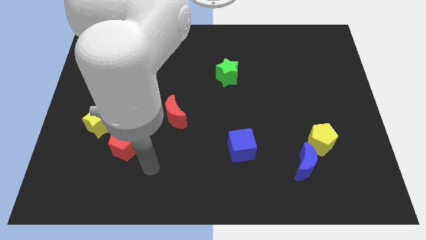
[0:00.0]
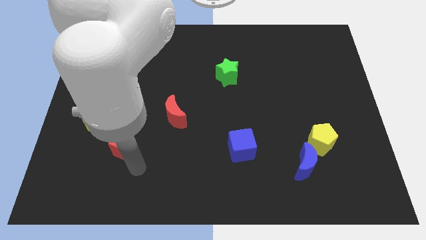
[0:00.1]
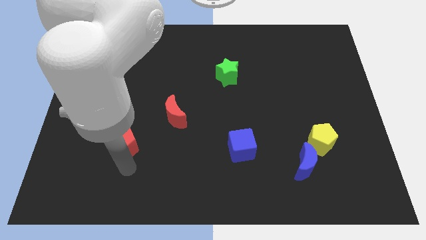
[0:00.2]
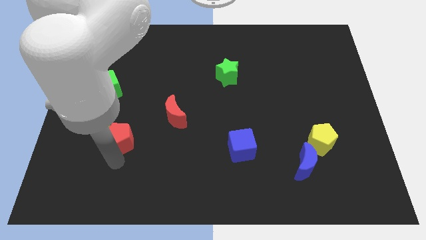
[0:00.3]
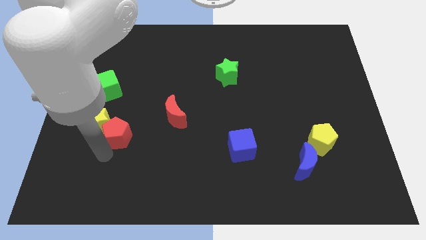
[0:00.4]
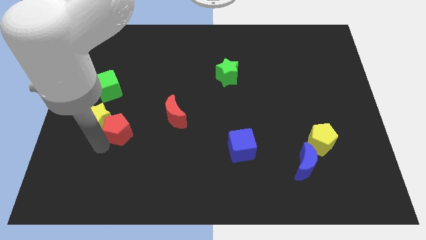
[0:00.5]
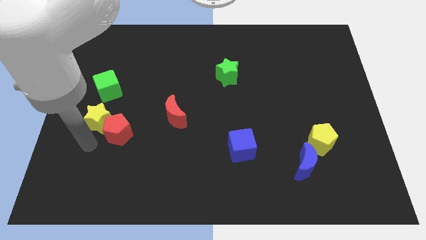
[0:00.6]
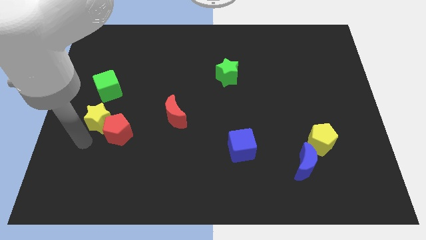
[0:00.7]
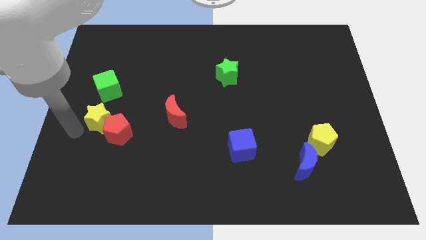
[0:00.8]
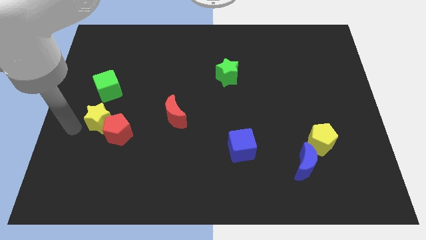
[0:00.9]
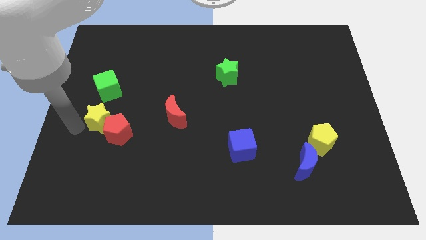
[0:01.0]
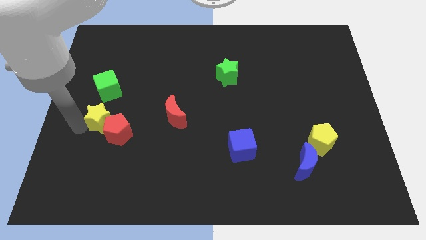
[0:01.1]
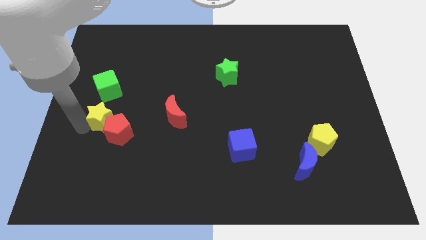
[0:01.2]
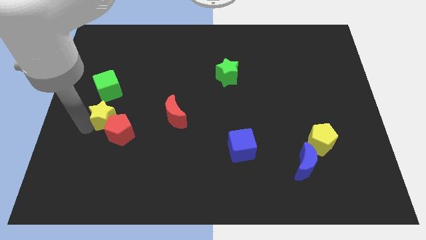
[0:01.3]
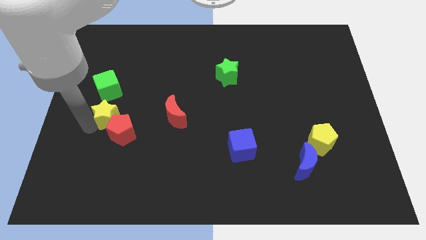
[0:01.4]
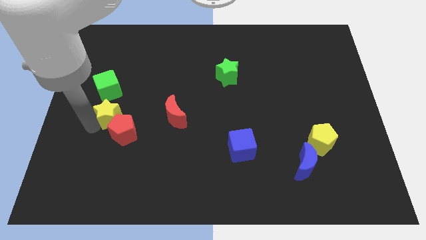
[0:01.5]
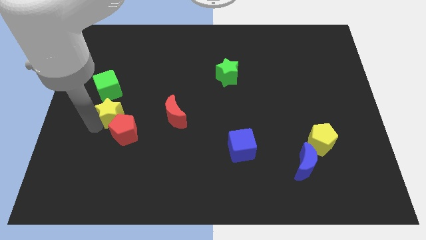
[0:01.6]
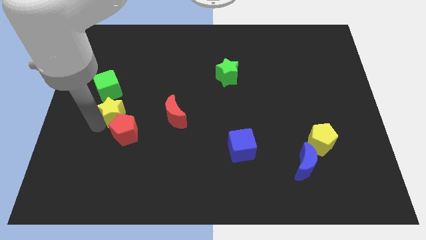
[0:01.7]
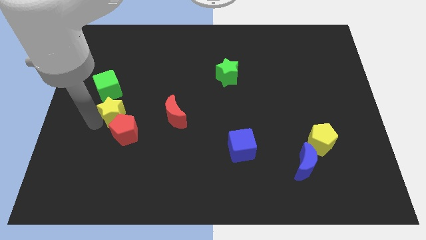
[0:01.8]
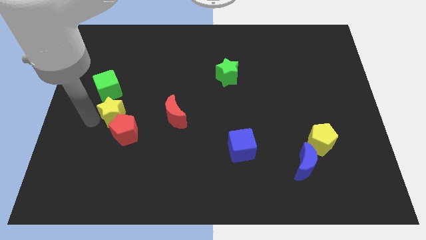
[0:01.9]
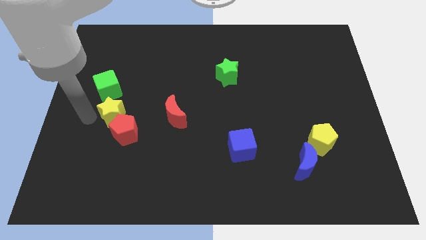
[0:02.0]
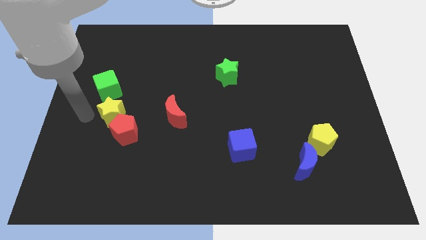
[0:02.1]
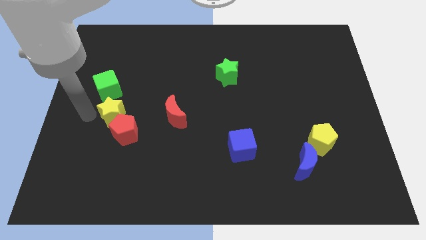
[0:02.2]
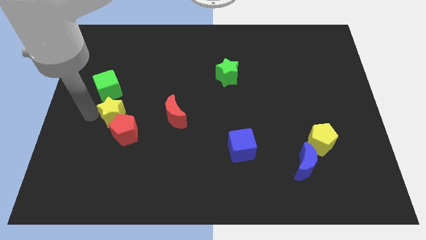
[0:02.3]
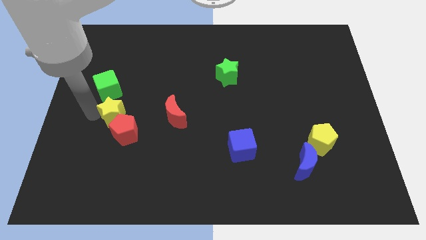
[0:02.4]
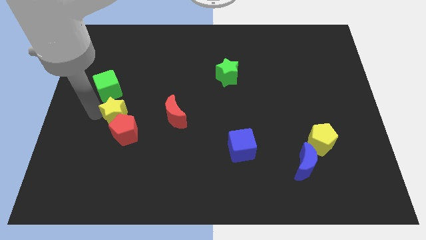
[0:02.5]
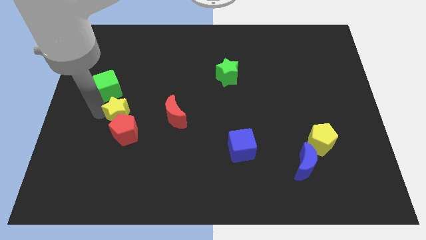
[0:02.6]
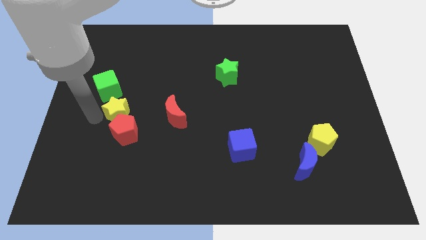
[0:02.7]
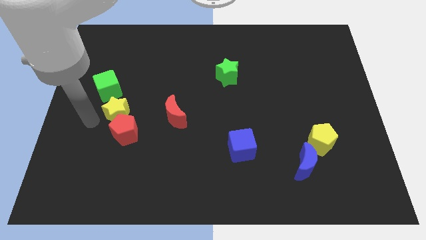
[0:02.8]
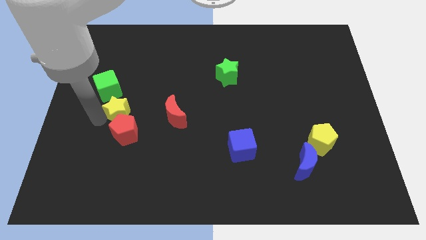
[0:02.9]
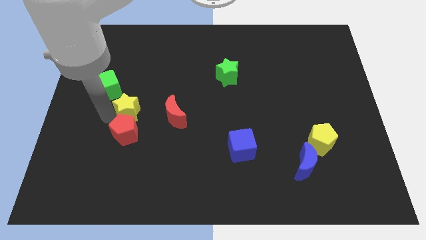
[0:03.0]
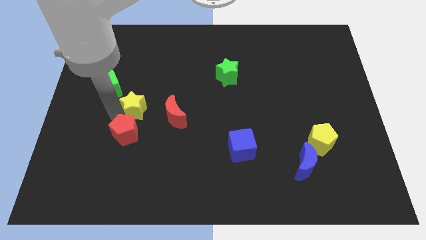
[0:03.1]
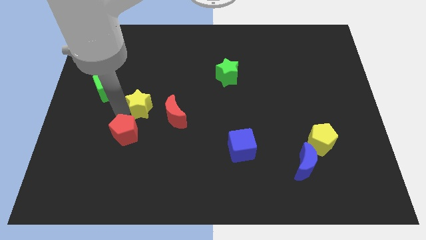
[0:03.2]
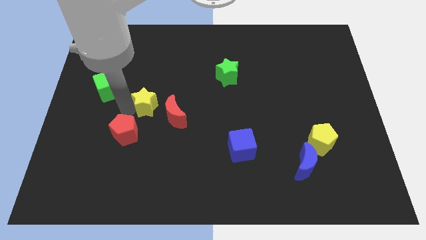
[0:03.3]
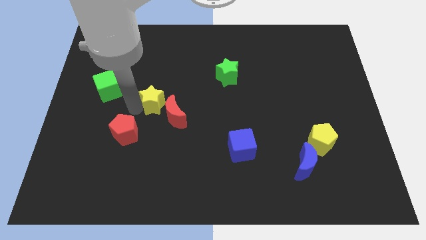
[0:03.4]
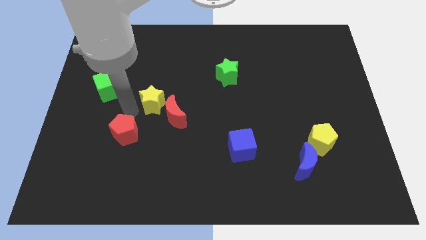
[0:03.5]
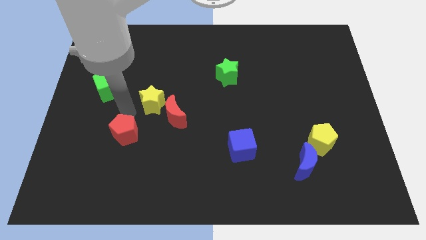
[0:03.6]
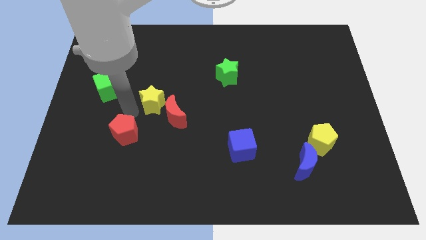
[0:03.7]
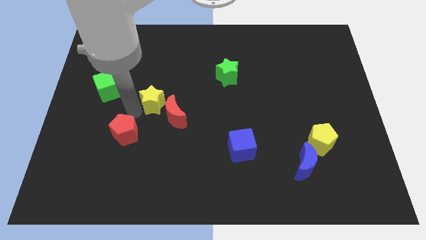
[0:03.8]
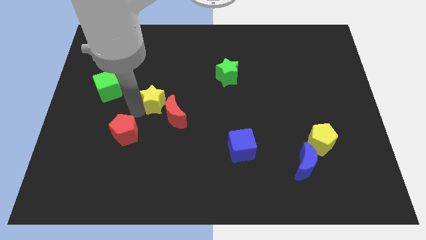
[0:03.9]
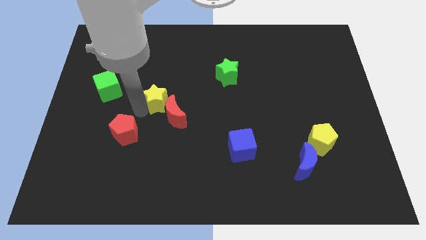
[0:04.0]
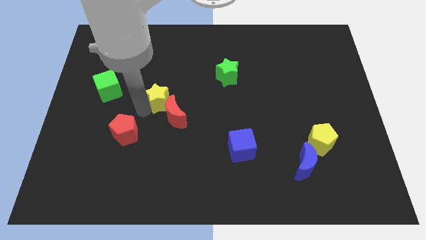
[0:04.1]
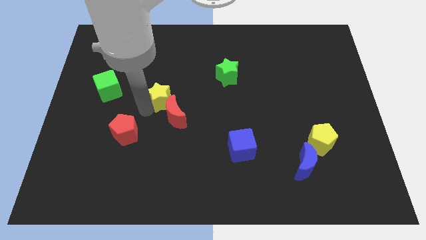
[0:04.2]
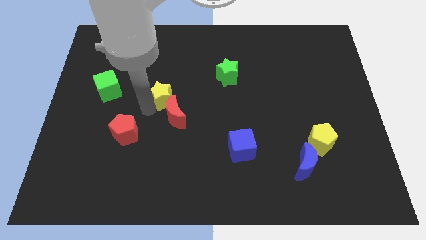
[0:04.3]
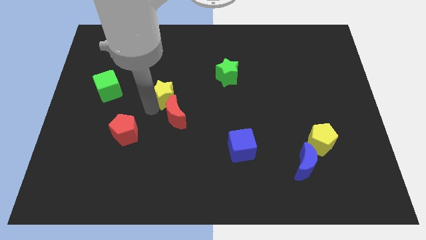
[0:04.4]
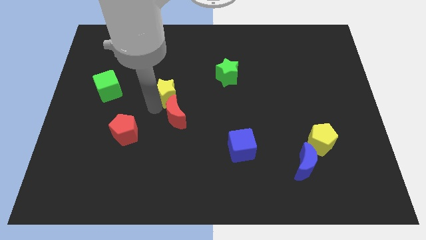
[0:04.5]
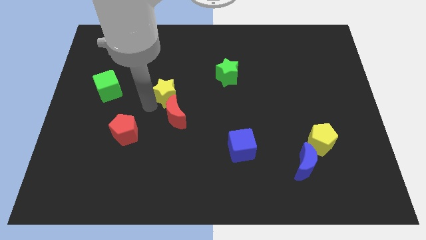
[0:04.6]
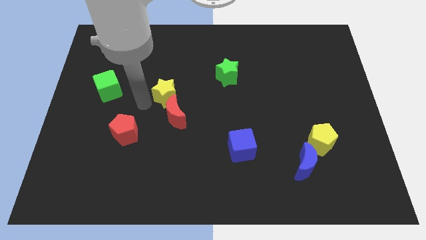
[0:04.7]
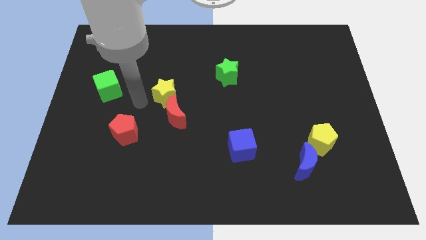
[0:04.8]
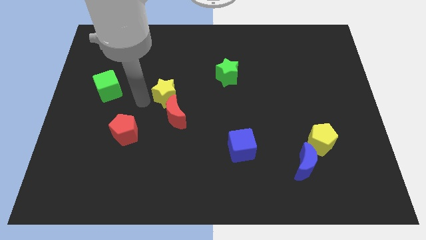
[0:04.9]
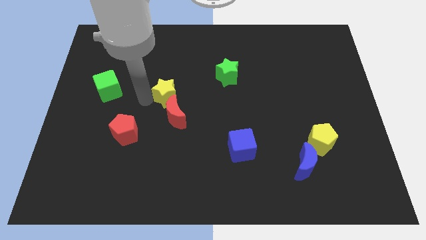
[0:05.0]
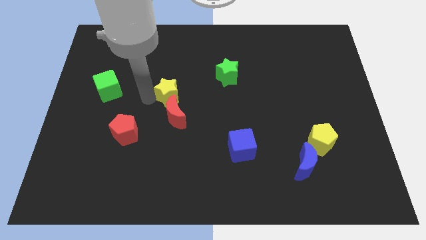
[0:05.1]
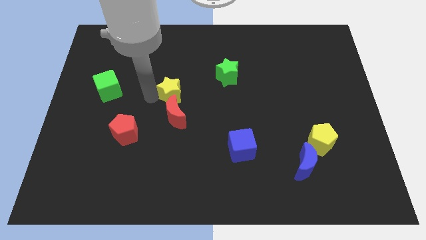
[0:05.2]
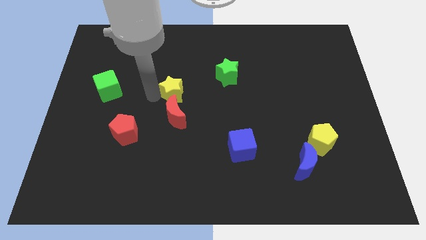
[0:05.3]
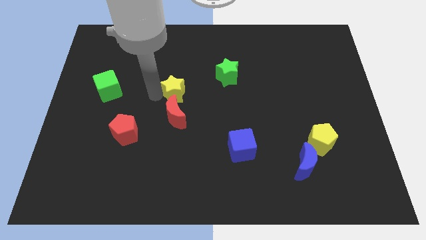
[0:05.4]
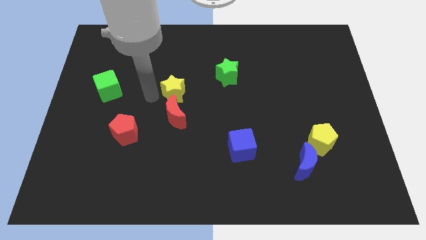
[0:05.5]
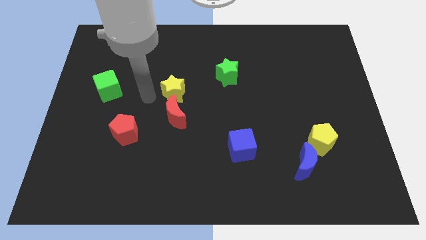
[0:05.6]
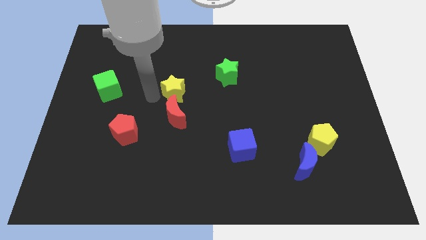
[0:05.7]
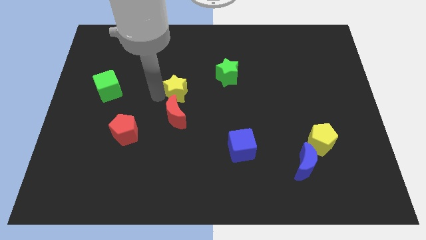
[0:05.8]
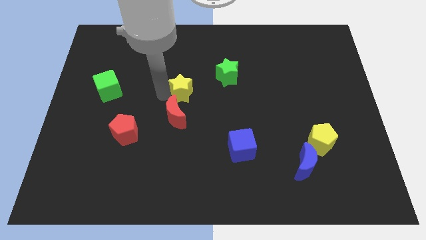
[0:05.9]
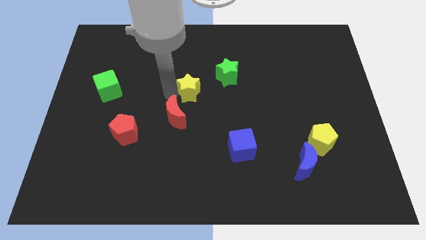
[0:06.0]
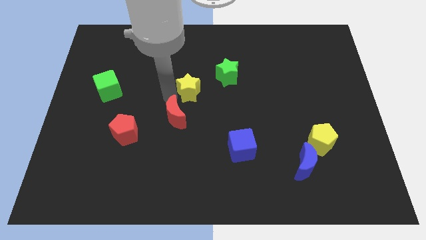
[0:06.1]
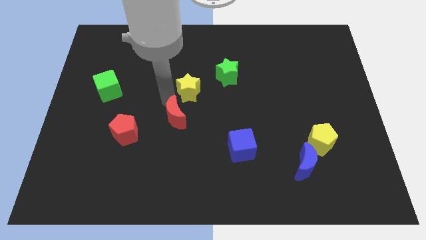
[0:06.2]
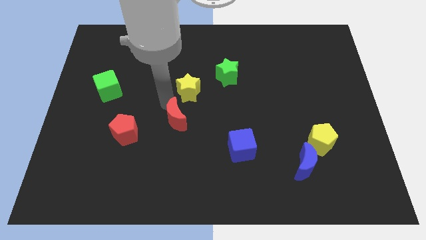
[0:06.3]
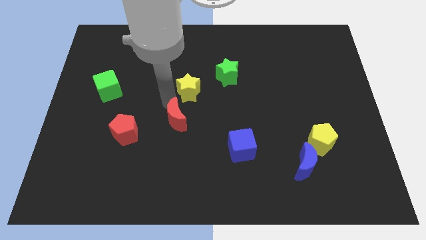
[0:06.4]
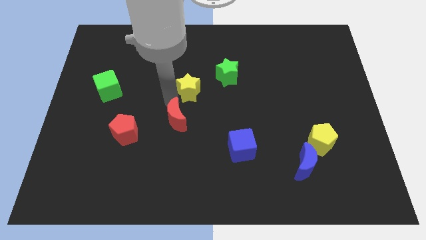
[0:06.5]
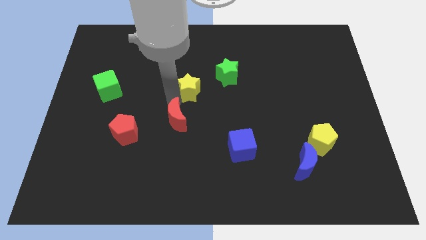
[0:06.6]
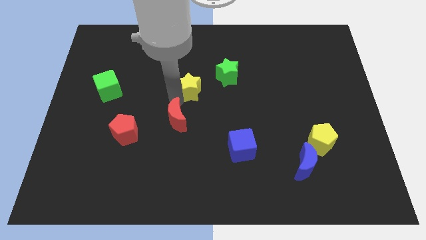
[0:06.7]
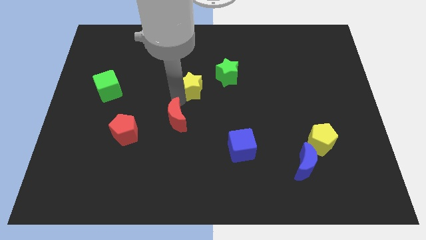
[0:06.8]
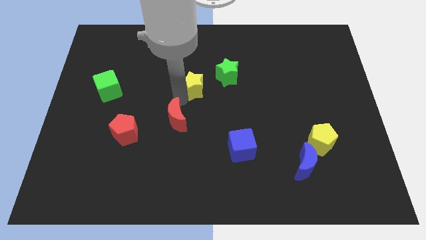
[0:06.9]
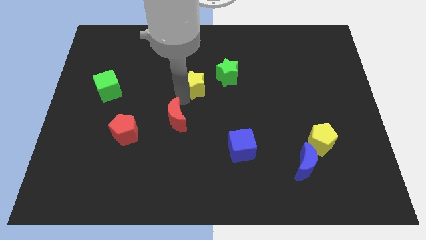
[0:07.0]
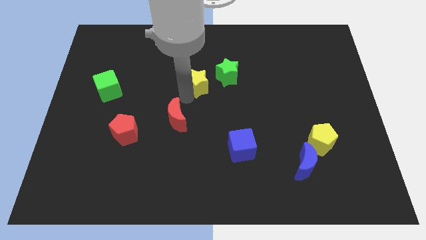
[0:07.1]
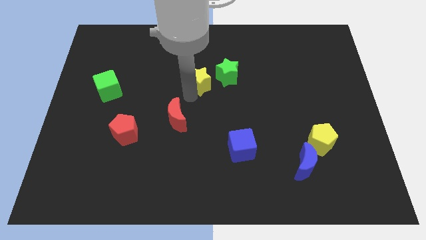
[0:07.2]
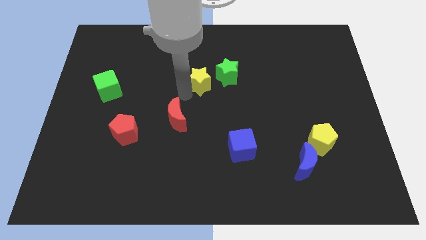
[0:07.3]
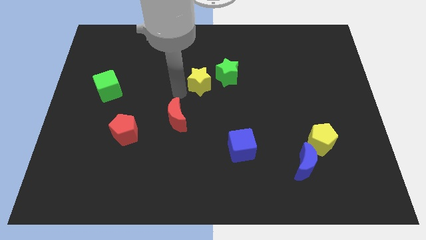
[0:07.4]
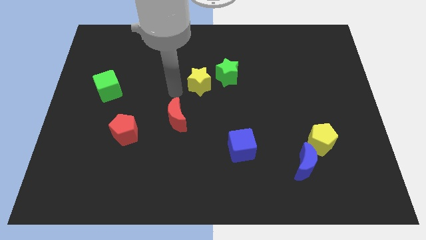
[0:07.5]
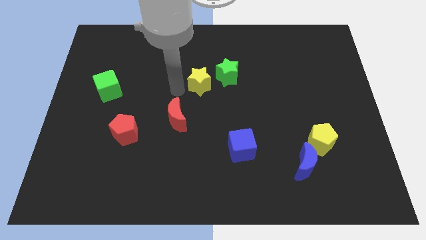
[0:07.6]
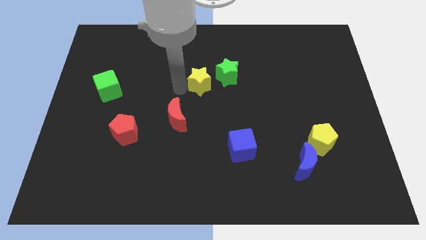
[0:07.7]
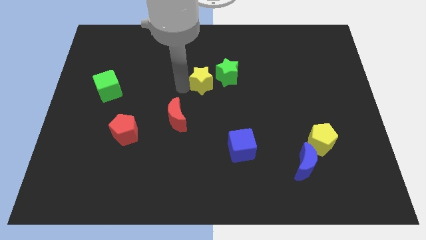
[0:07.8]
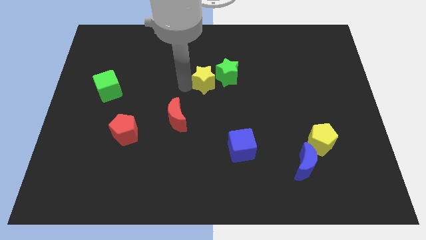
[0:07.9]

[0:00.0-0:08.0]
push the yellow star towards the green star
